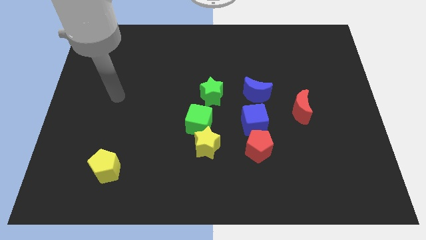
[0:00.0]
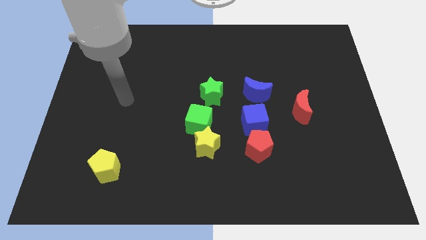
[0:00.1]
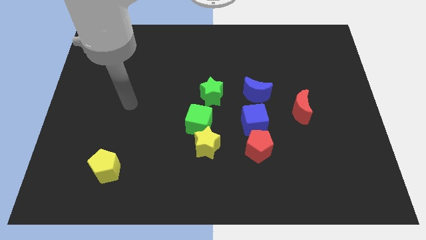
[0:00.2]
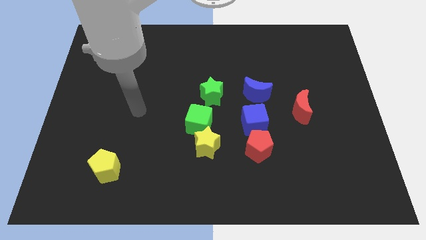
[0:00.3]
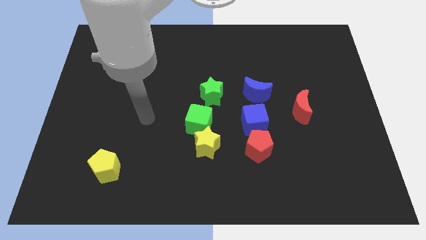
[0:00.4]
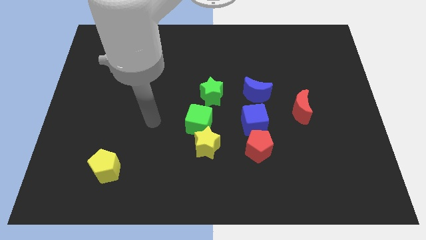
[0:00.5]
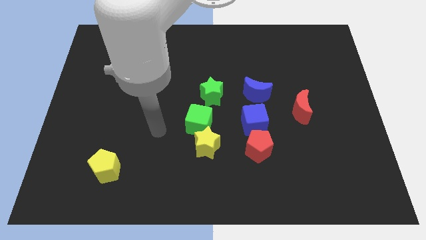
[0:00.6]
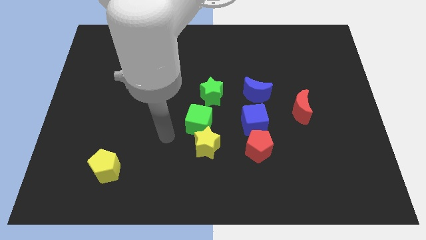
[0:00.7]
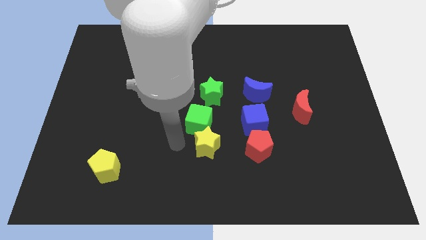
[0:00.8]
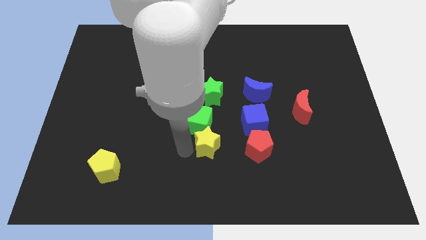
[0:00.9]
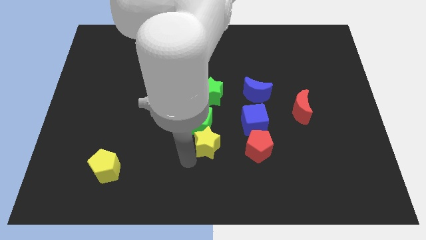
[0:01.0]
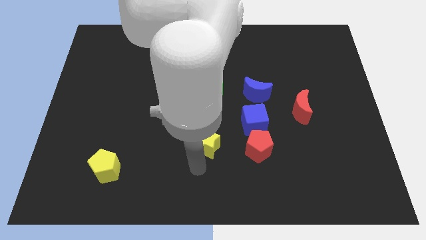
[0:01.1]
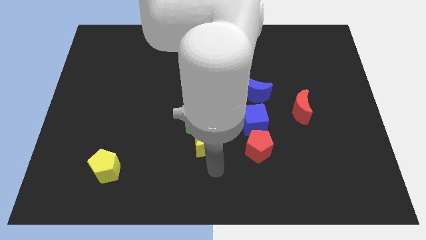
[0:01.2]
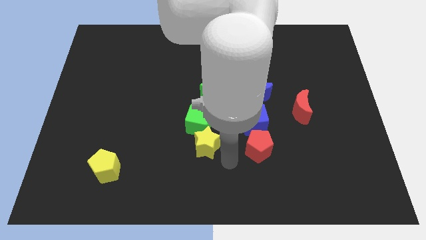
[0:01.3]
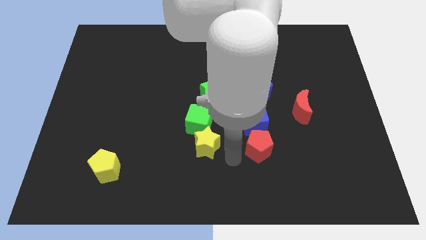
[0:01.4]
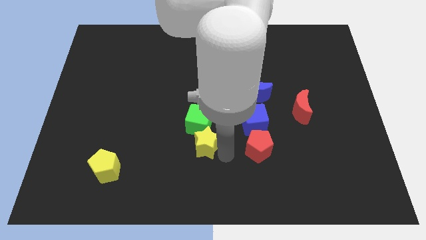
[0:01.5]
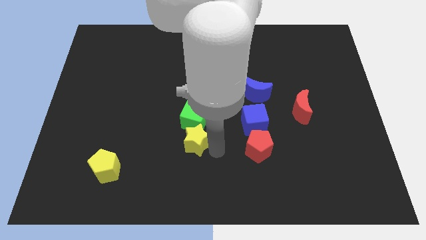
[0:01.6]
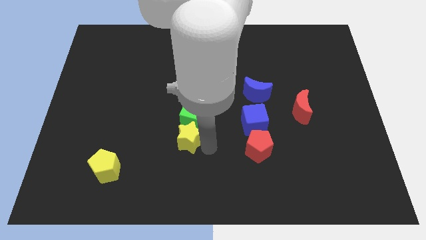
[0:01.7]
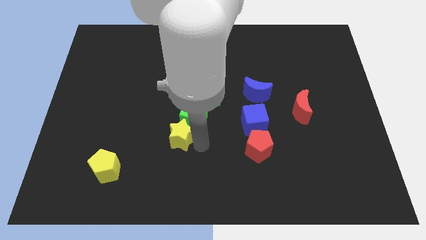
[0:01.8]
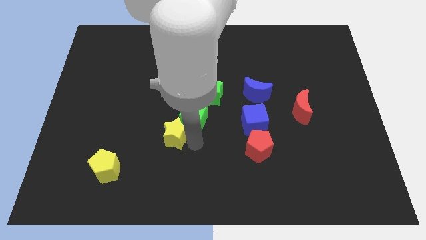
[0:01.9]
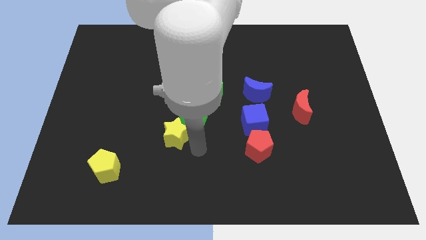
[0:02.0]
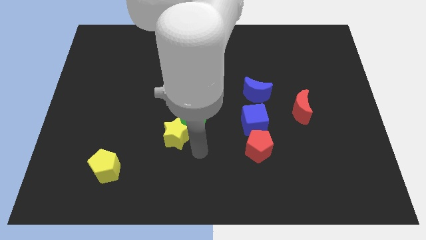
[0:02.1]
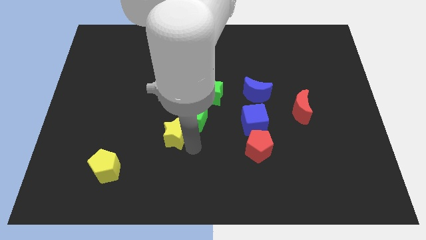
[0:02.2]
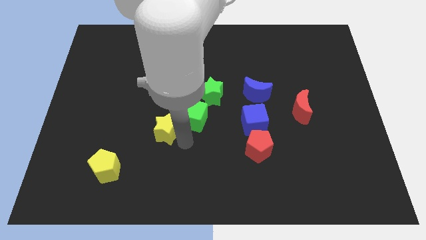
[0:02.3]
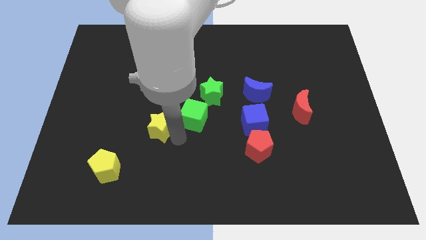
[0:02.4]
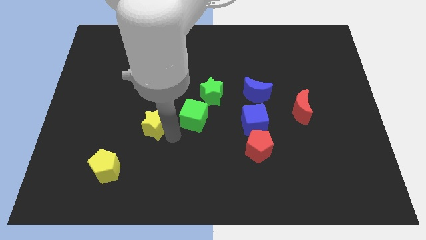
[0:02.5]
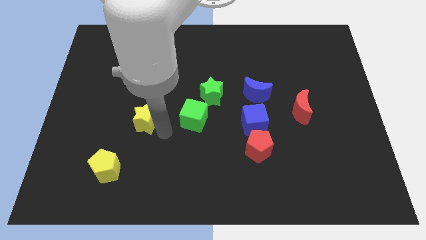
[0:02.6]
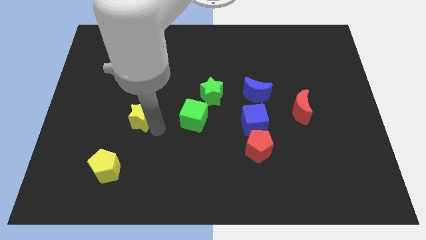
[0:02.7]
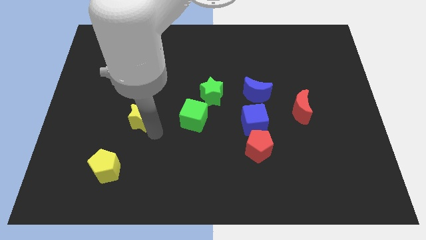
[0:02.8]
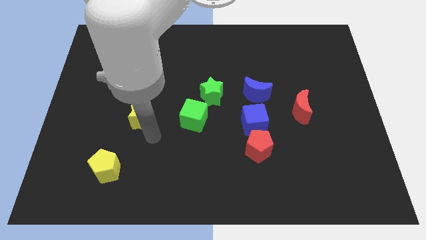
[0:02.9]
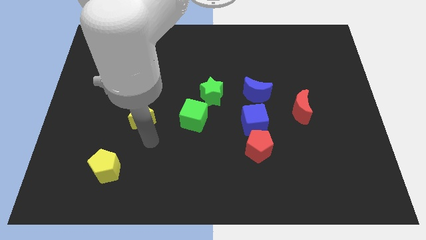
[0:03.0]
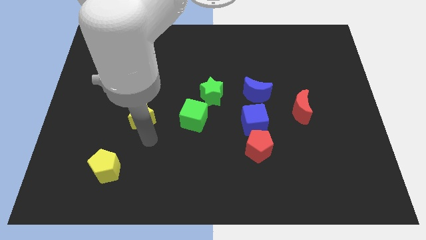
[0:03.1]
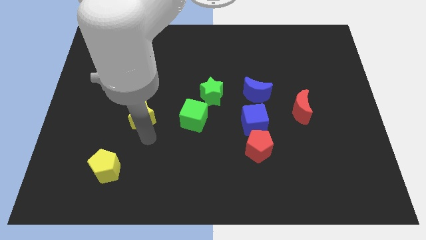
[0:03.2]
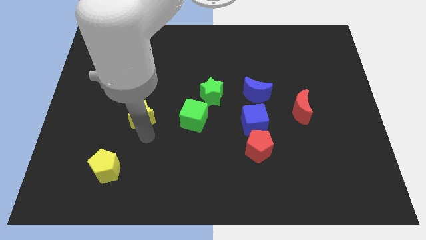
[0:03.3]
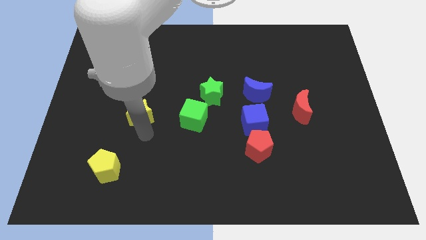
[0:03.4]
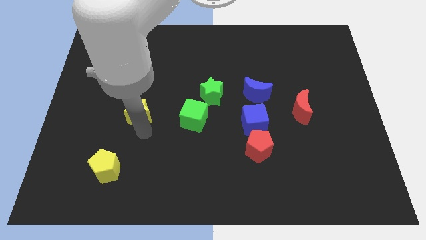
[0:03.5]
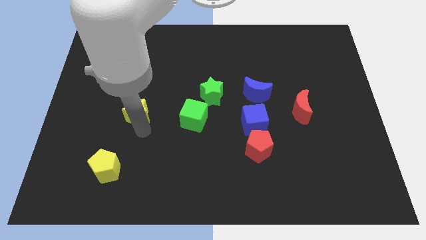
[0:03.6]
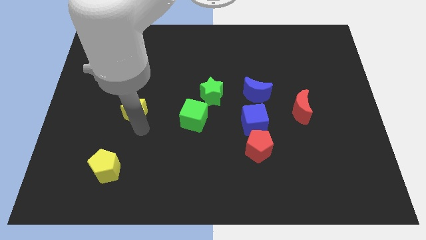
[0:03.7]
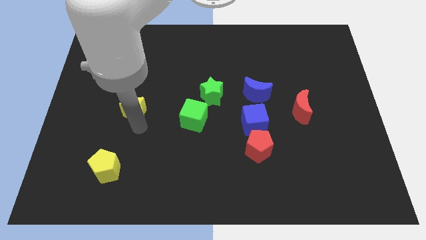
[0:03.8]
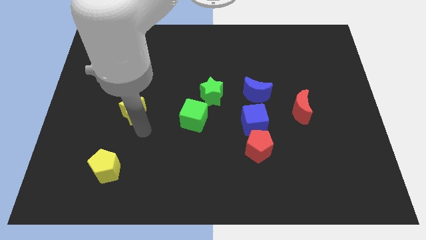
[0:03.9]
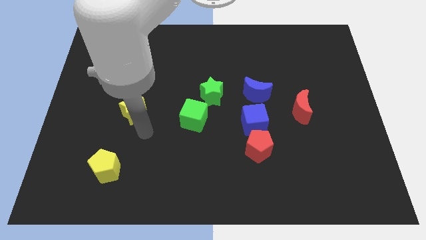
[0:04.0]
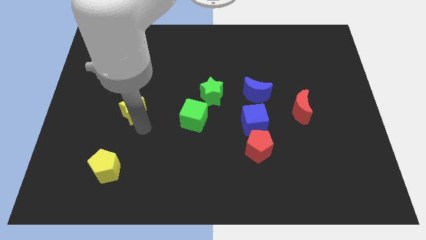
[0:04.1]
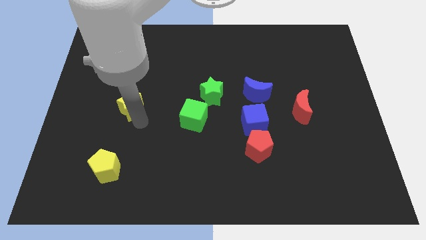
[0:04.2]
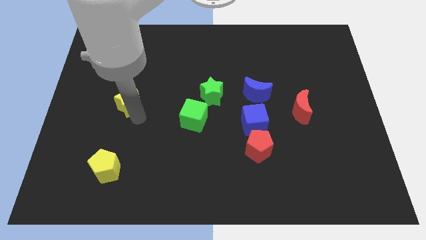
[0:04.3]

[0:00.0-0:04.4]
push the yellow star diagonally up and to the left

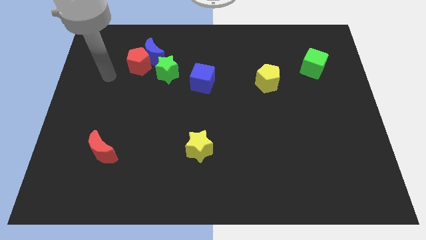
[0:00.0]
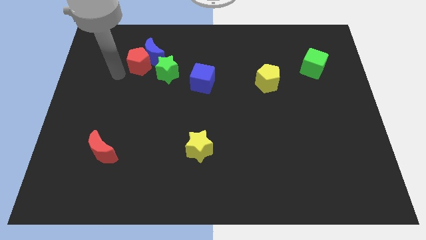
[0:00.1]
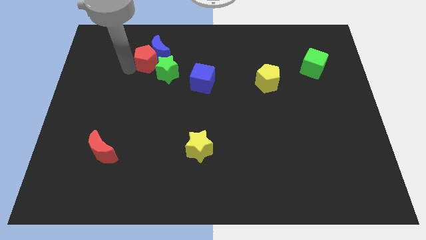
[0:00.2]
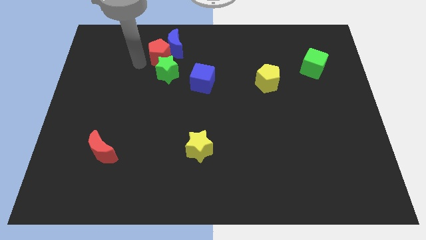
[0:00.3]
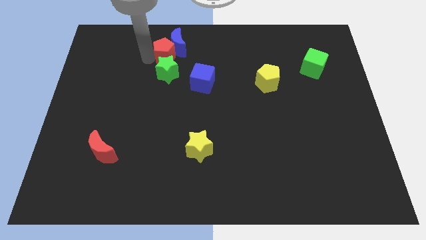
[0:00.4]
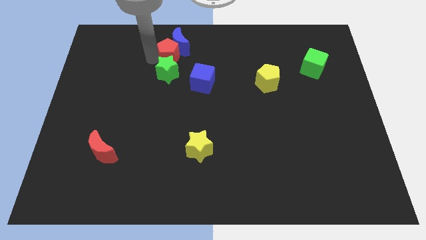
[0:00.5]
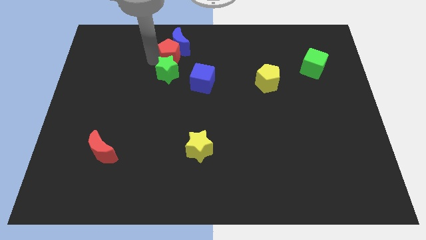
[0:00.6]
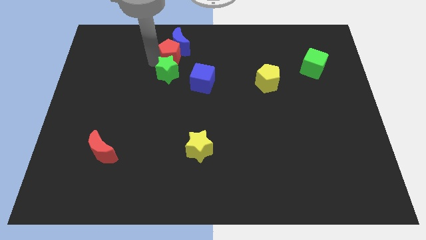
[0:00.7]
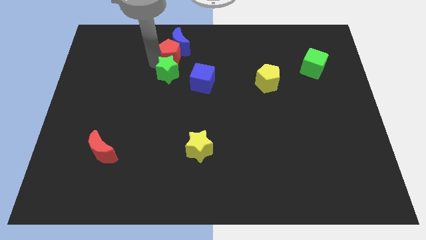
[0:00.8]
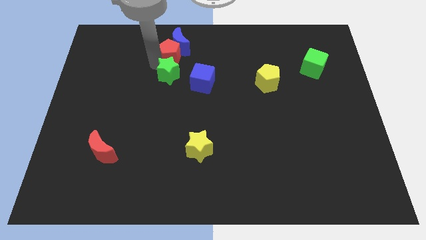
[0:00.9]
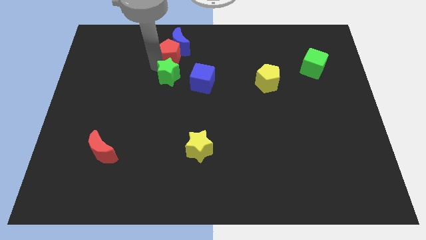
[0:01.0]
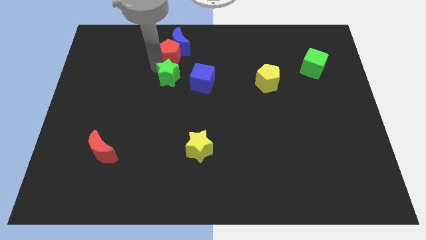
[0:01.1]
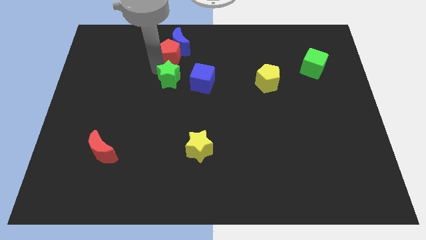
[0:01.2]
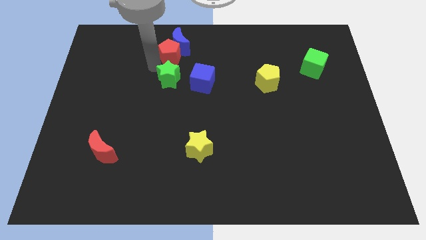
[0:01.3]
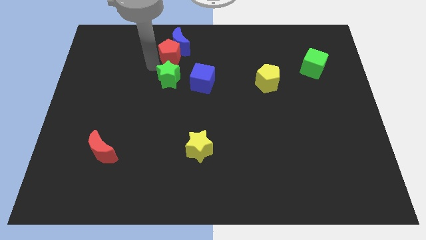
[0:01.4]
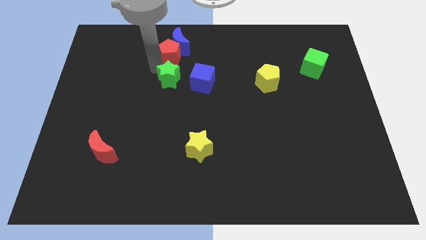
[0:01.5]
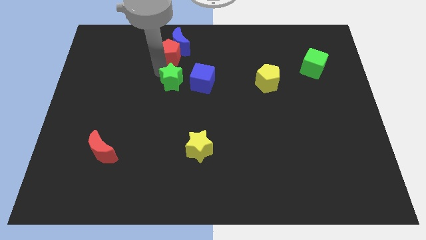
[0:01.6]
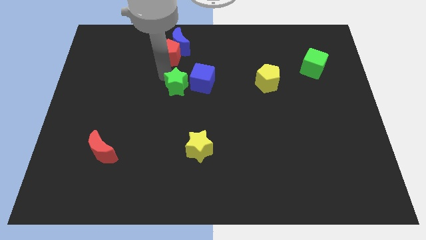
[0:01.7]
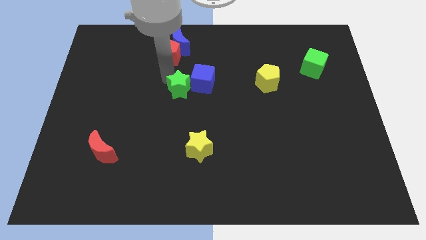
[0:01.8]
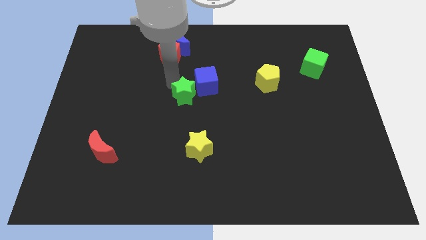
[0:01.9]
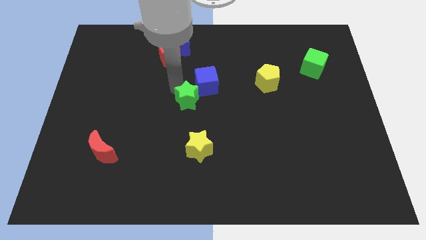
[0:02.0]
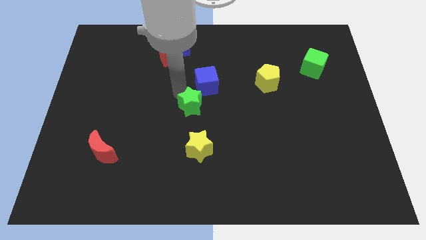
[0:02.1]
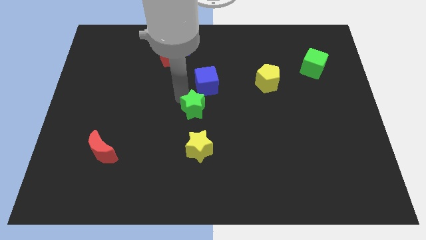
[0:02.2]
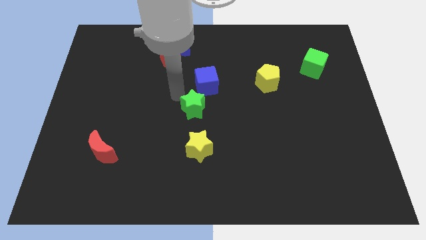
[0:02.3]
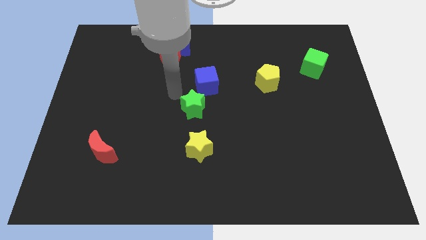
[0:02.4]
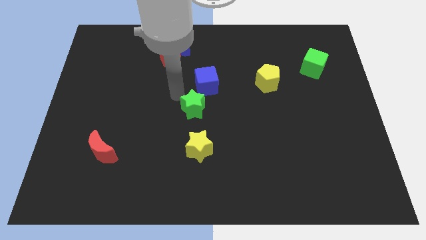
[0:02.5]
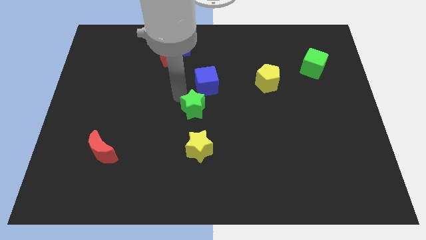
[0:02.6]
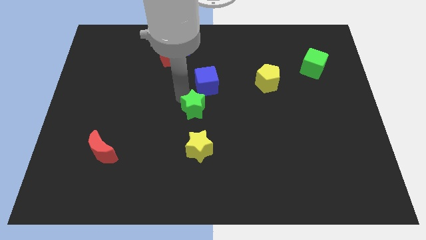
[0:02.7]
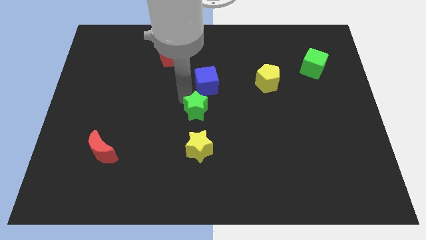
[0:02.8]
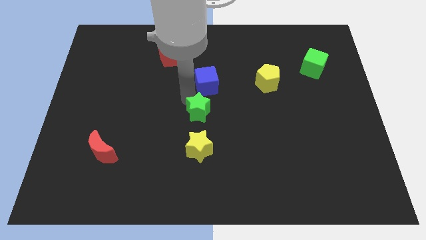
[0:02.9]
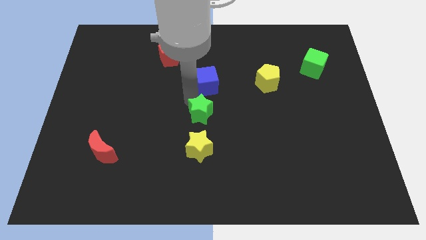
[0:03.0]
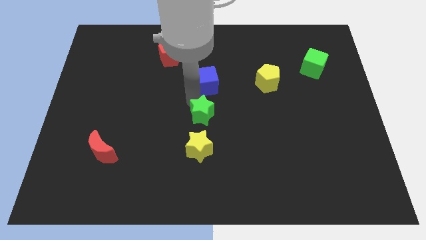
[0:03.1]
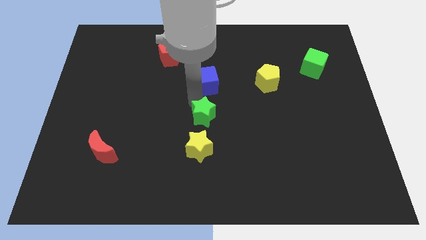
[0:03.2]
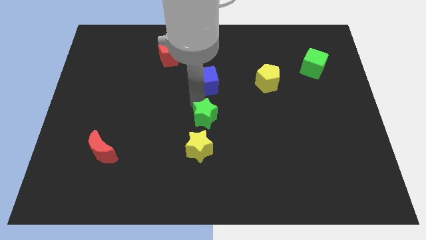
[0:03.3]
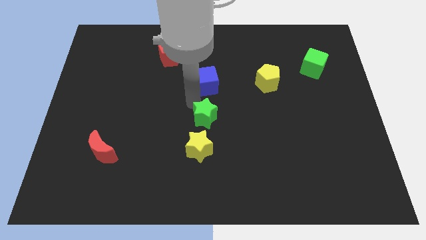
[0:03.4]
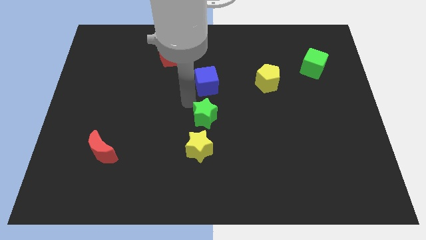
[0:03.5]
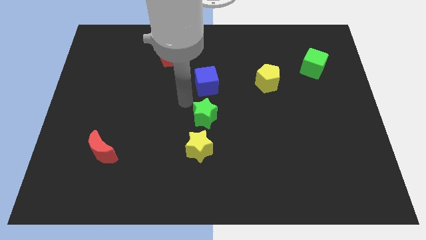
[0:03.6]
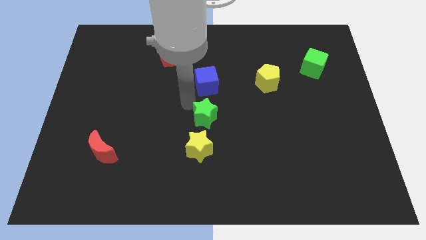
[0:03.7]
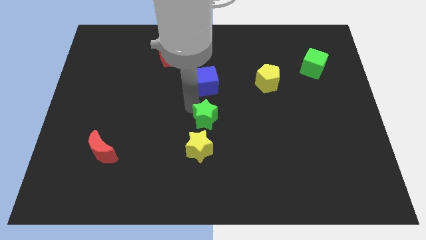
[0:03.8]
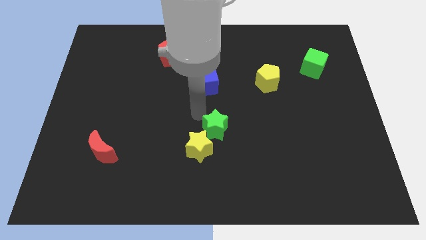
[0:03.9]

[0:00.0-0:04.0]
slide the green star down and right

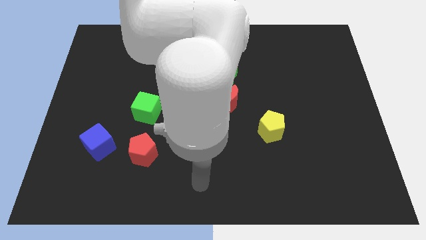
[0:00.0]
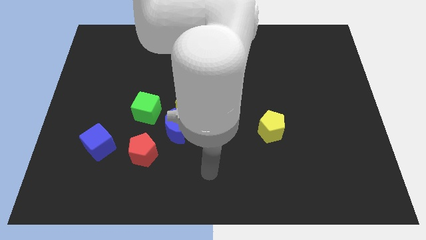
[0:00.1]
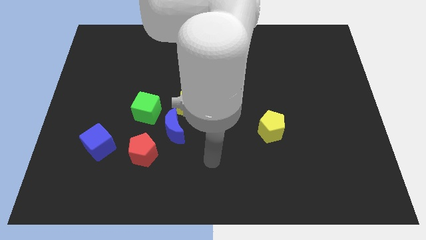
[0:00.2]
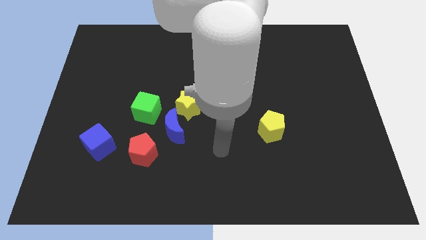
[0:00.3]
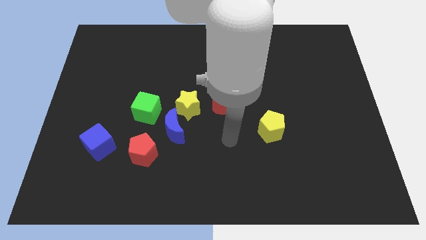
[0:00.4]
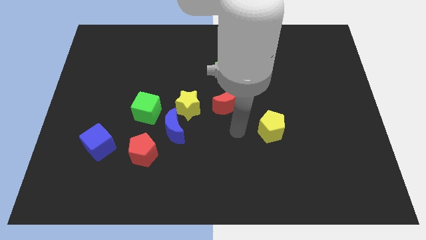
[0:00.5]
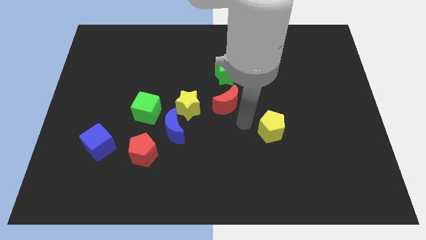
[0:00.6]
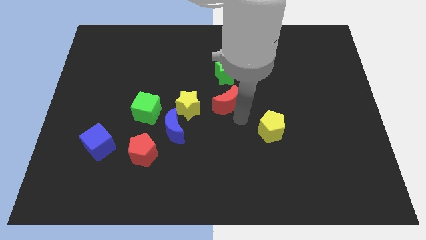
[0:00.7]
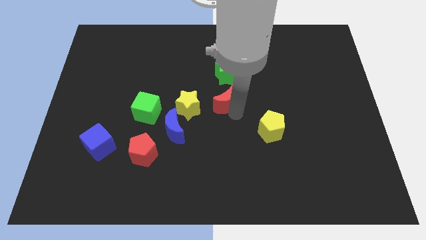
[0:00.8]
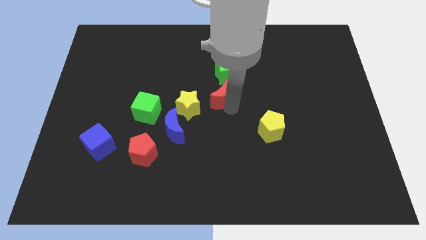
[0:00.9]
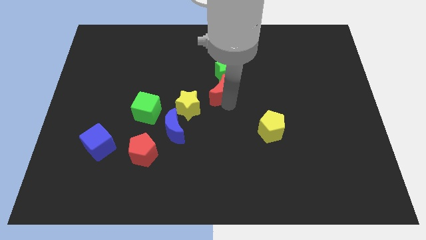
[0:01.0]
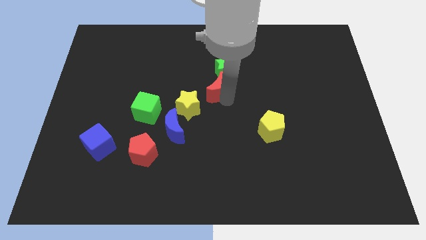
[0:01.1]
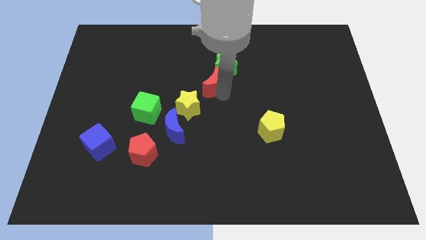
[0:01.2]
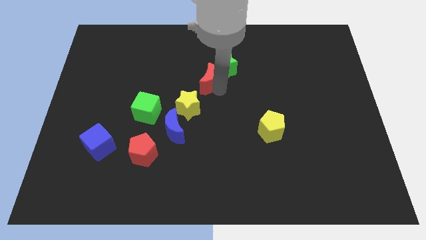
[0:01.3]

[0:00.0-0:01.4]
move the red moon up and left slightly
